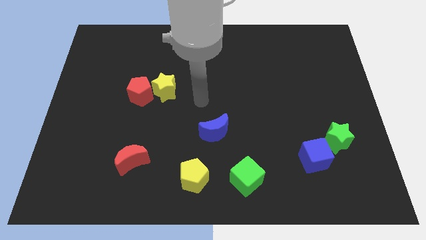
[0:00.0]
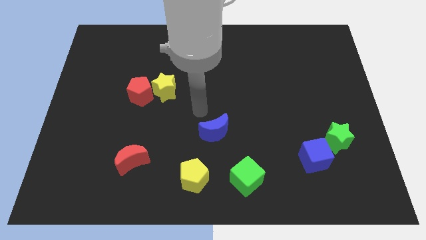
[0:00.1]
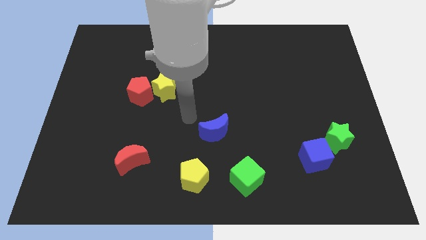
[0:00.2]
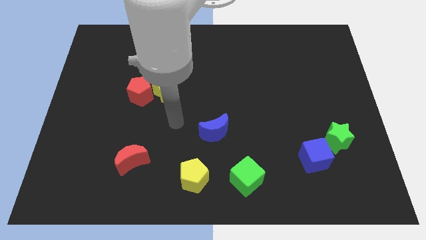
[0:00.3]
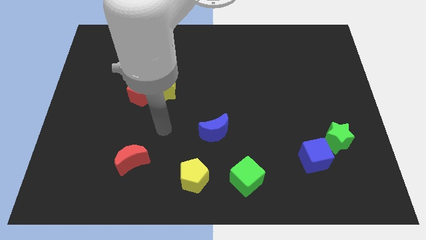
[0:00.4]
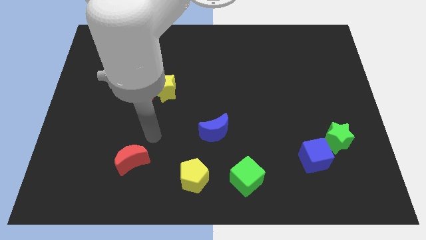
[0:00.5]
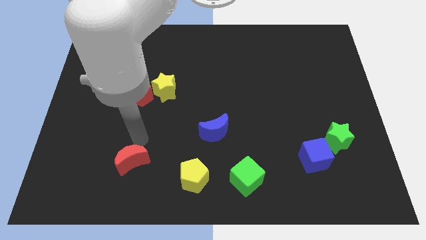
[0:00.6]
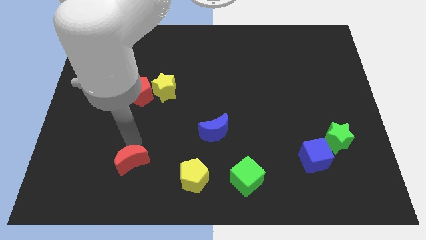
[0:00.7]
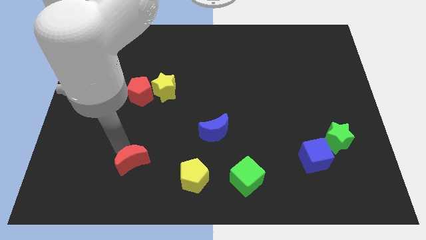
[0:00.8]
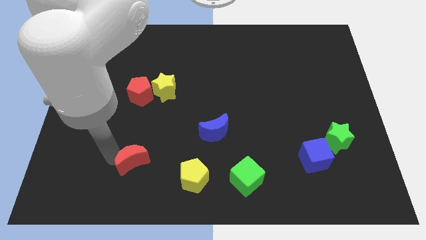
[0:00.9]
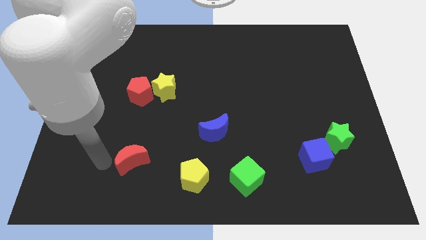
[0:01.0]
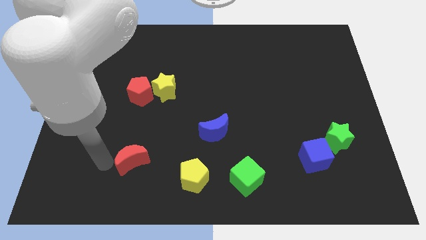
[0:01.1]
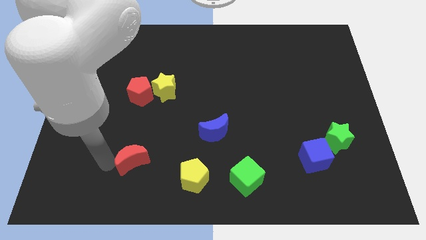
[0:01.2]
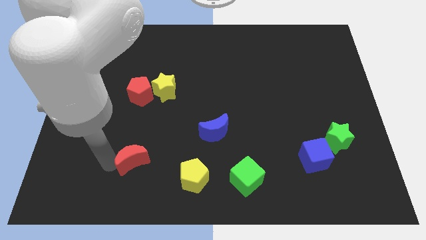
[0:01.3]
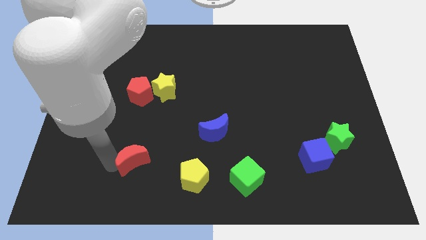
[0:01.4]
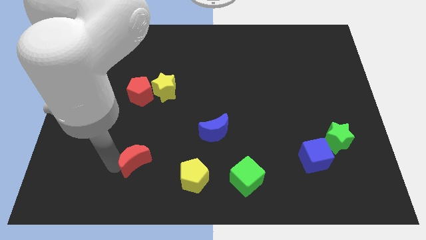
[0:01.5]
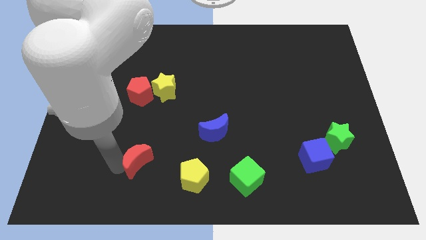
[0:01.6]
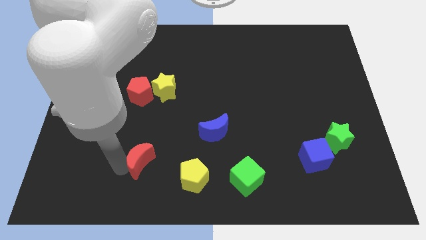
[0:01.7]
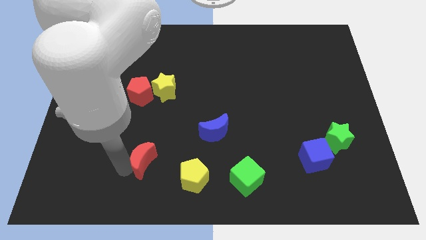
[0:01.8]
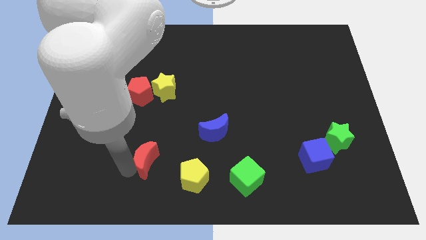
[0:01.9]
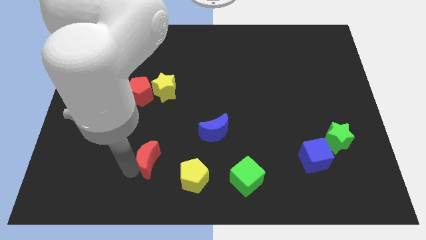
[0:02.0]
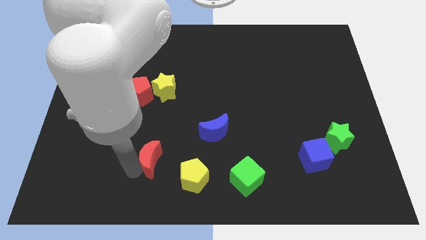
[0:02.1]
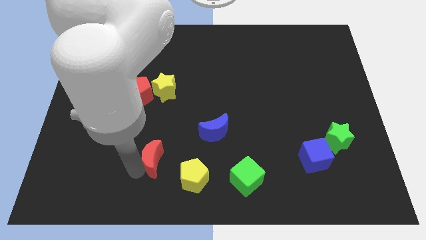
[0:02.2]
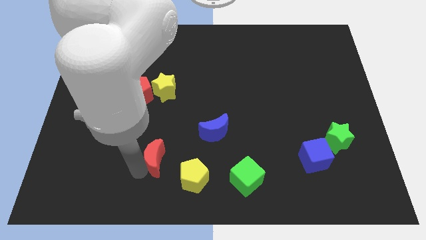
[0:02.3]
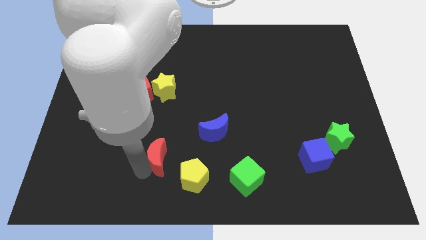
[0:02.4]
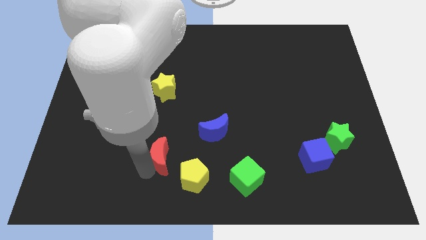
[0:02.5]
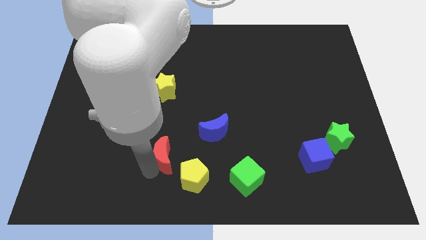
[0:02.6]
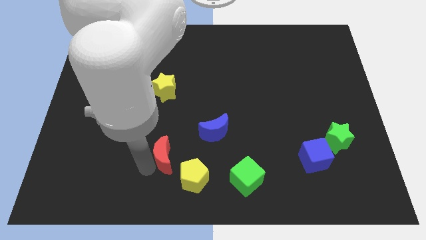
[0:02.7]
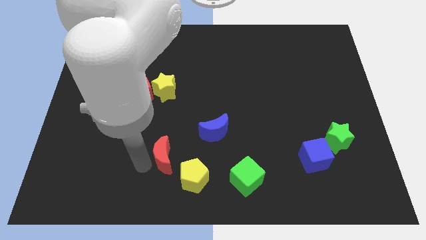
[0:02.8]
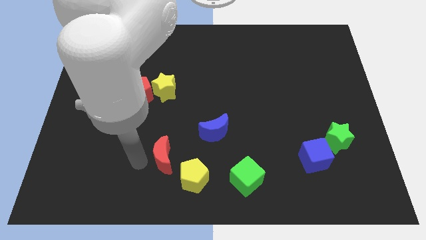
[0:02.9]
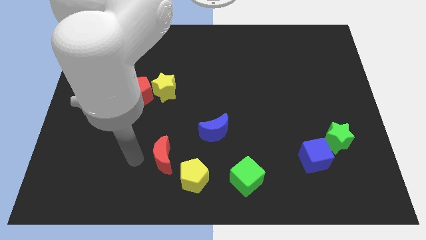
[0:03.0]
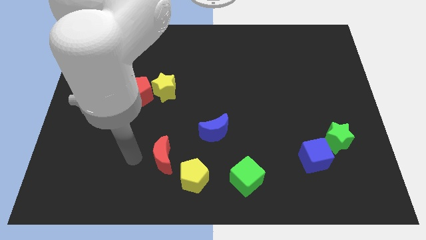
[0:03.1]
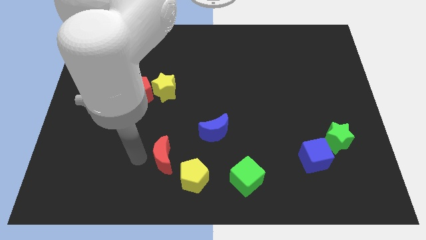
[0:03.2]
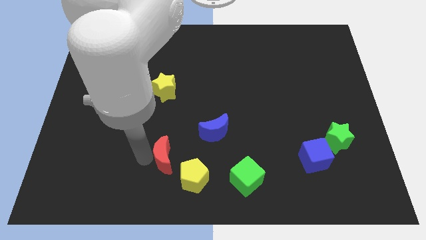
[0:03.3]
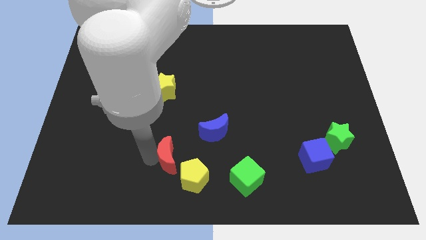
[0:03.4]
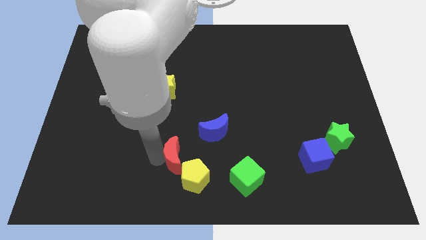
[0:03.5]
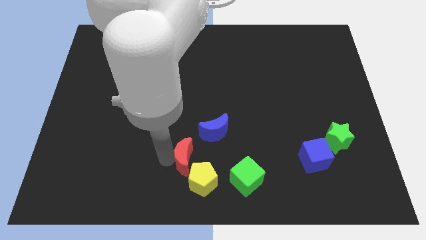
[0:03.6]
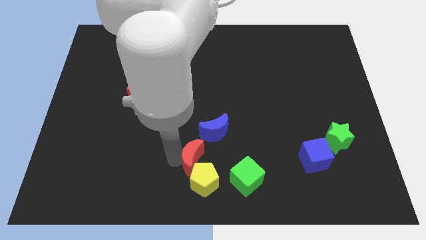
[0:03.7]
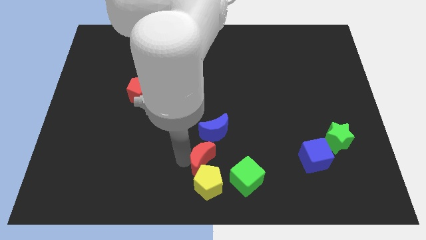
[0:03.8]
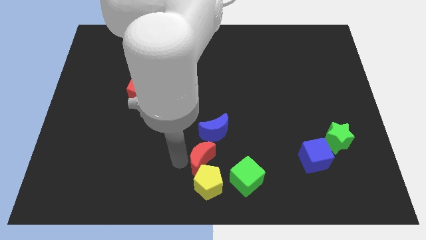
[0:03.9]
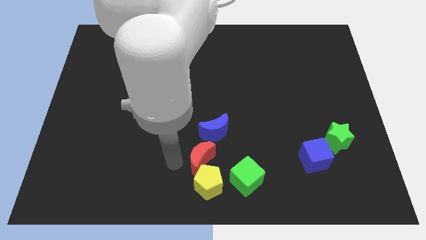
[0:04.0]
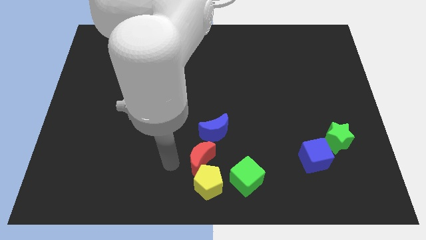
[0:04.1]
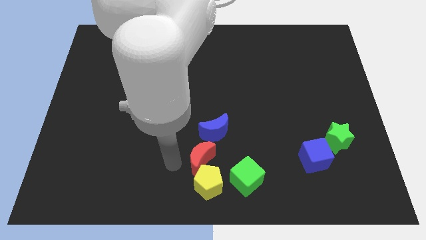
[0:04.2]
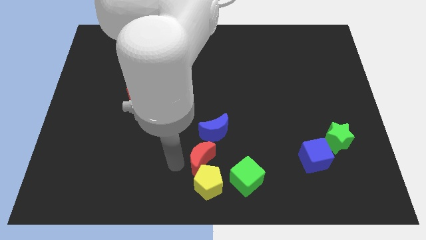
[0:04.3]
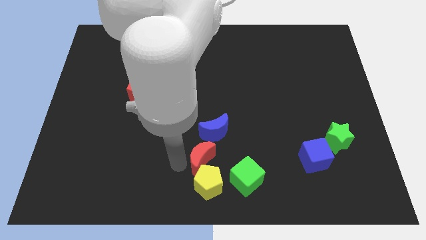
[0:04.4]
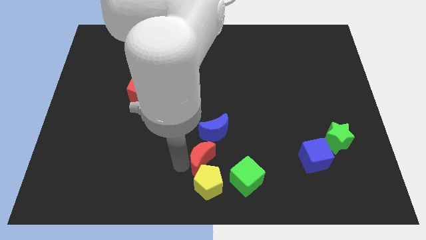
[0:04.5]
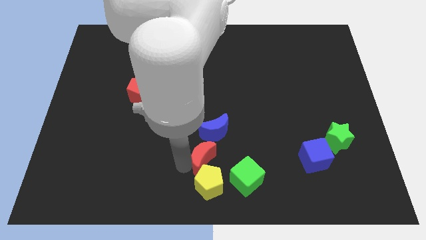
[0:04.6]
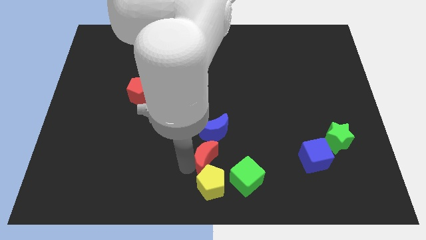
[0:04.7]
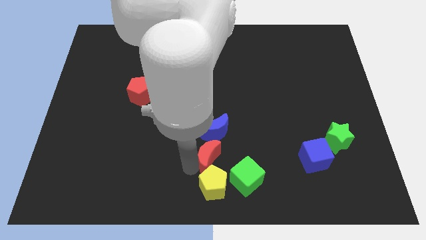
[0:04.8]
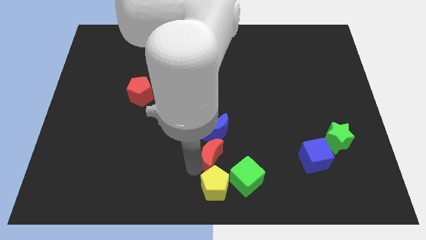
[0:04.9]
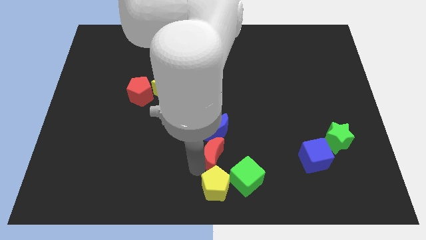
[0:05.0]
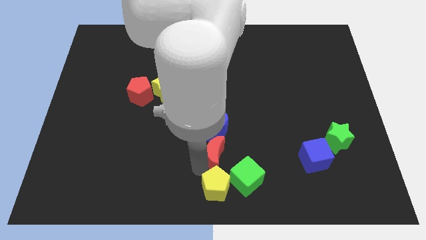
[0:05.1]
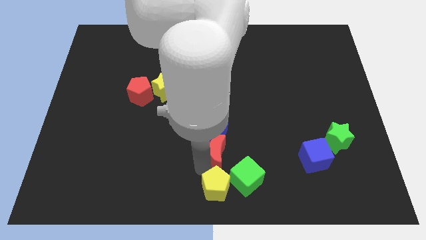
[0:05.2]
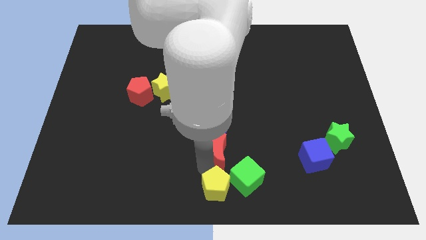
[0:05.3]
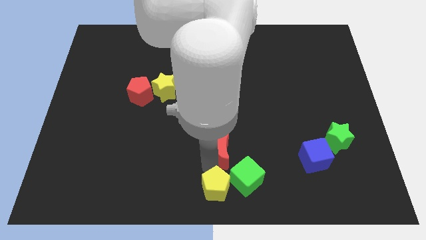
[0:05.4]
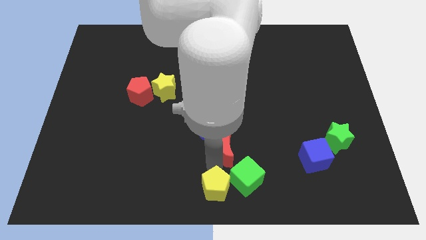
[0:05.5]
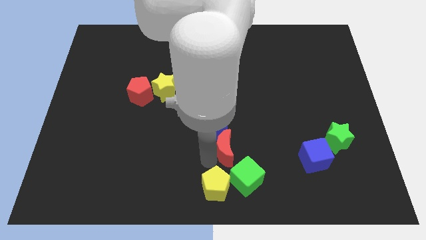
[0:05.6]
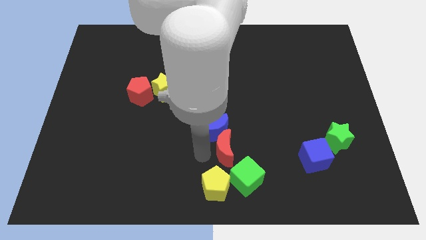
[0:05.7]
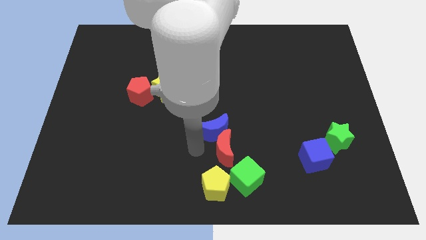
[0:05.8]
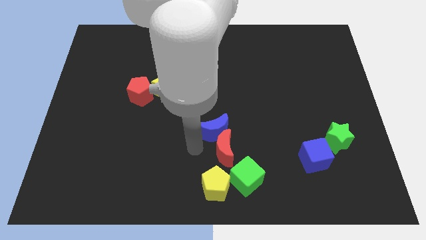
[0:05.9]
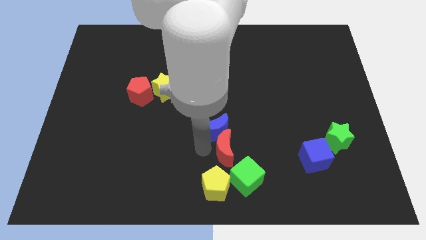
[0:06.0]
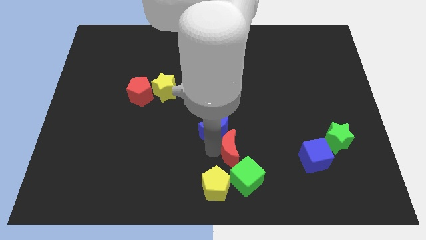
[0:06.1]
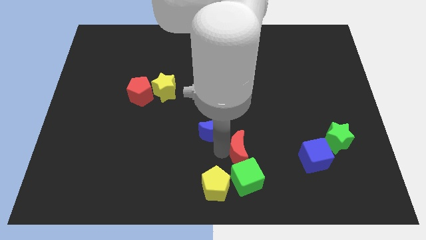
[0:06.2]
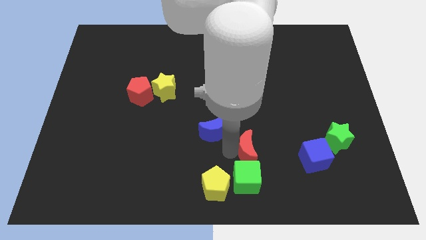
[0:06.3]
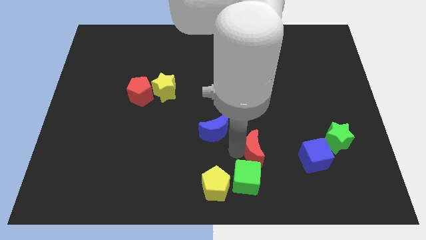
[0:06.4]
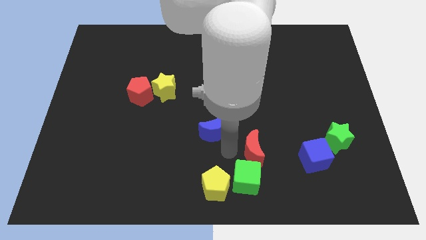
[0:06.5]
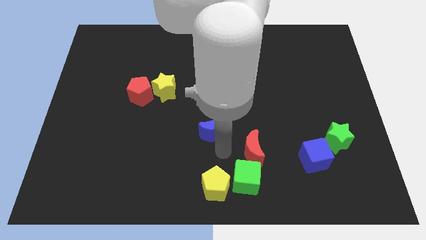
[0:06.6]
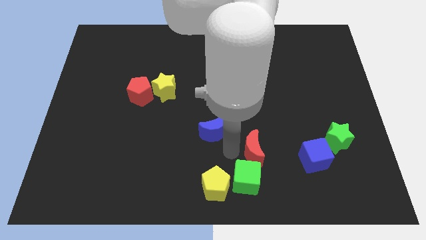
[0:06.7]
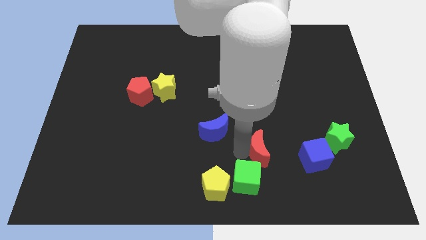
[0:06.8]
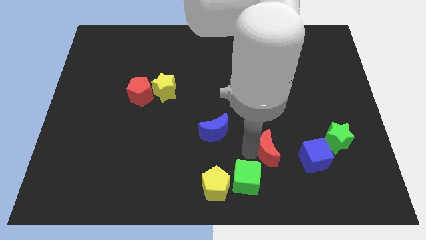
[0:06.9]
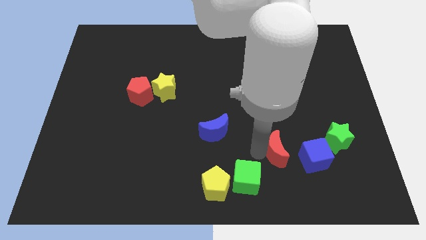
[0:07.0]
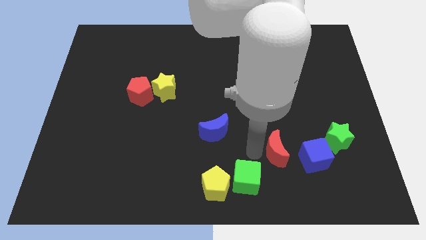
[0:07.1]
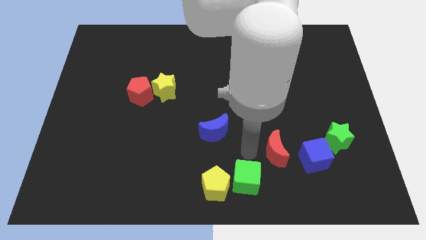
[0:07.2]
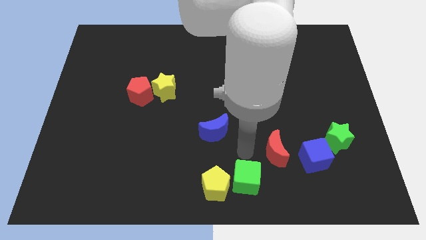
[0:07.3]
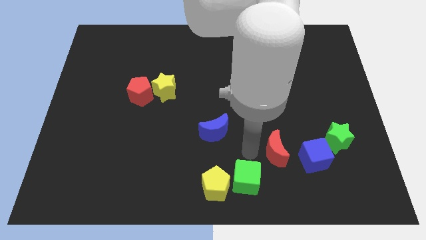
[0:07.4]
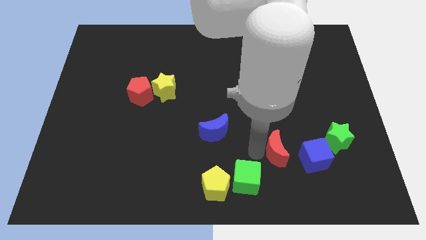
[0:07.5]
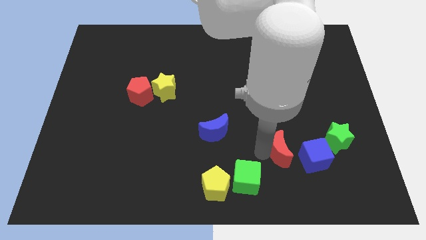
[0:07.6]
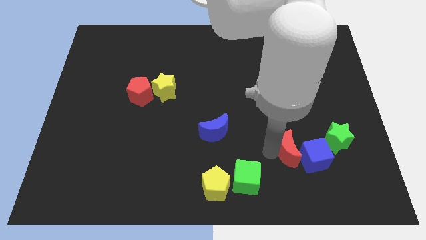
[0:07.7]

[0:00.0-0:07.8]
move the red moon next to the blue cube

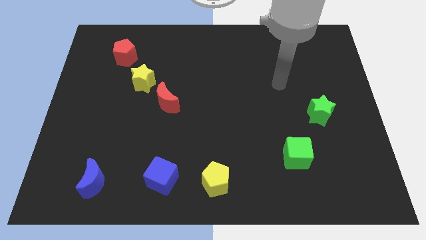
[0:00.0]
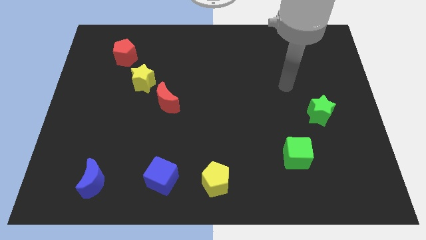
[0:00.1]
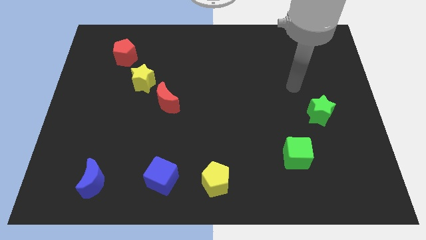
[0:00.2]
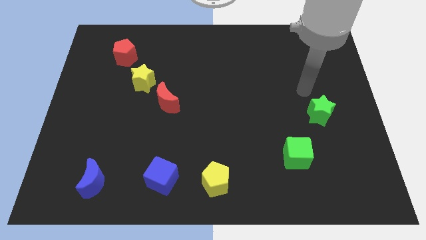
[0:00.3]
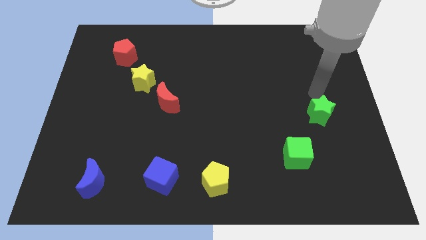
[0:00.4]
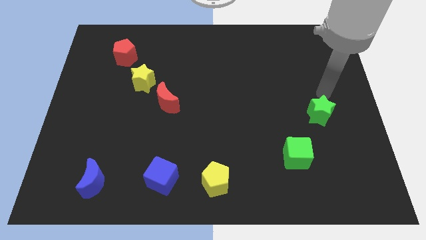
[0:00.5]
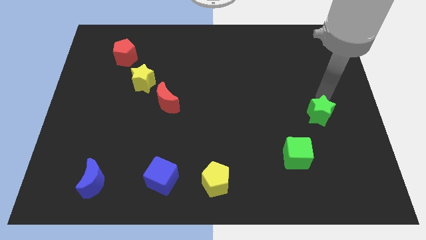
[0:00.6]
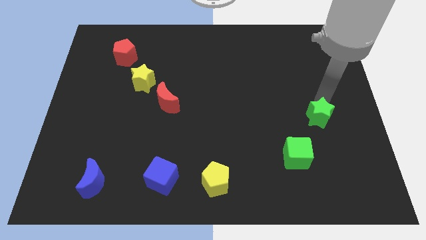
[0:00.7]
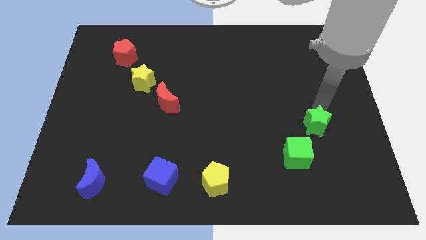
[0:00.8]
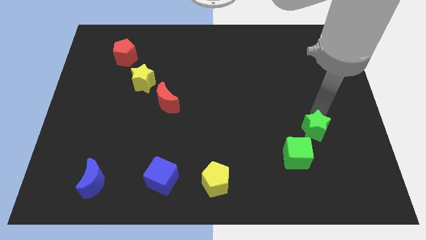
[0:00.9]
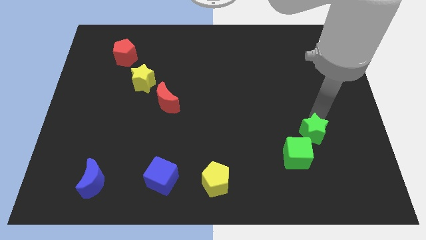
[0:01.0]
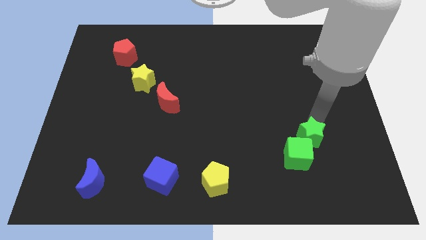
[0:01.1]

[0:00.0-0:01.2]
slide the green star to the green cube
